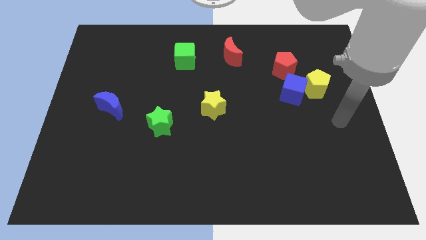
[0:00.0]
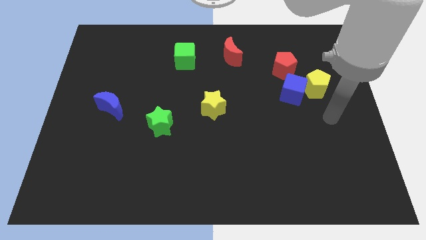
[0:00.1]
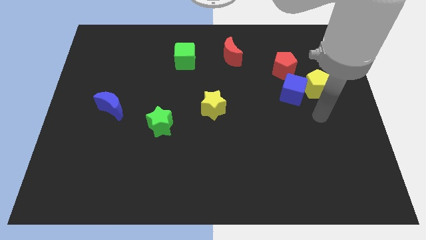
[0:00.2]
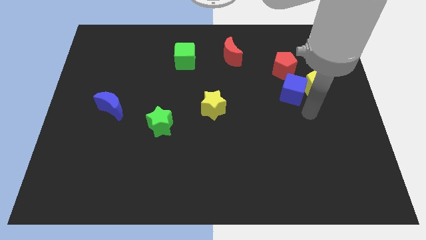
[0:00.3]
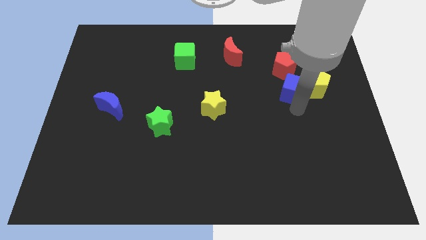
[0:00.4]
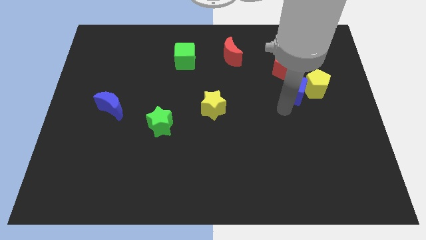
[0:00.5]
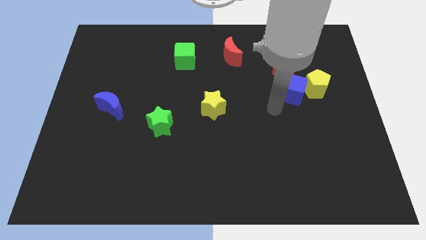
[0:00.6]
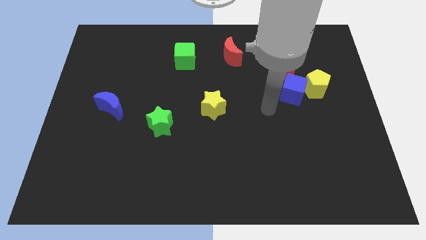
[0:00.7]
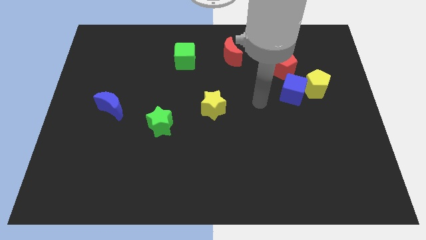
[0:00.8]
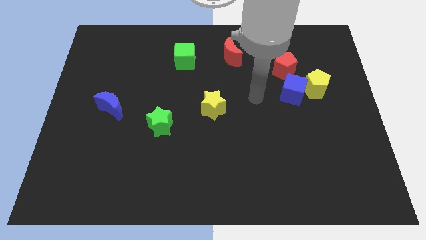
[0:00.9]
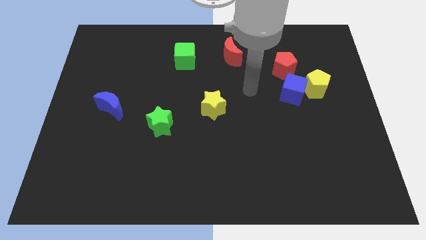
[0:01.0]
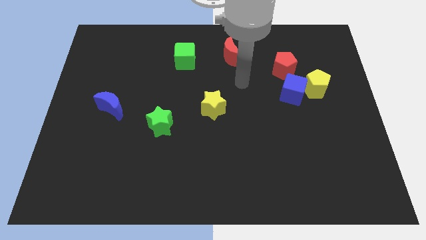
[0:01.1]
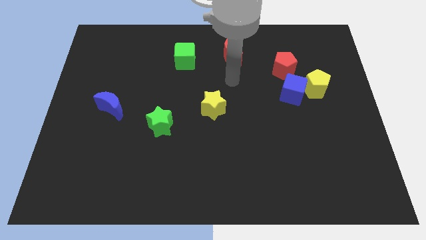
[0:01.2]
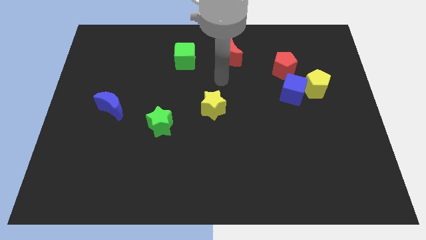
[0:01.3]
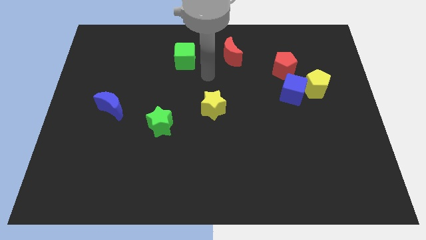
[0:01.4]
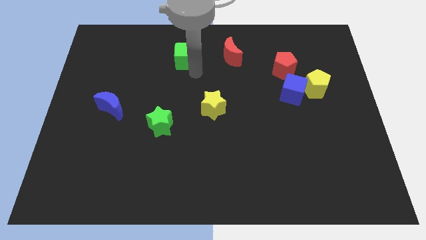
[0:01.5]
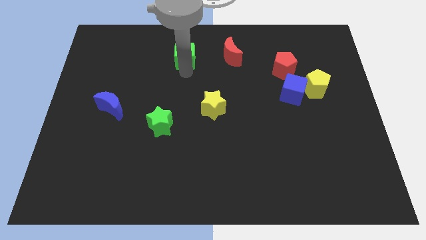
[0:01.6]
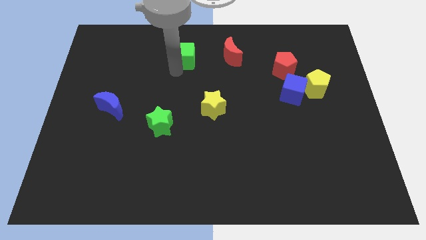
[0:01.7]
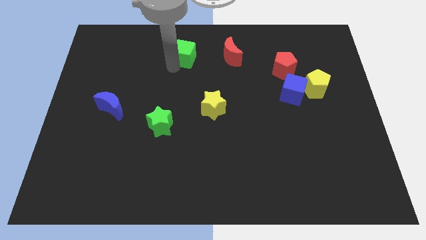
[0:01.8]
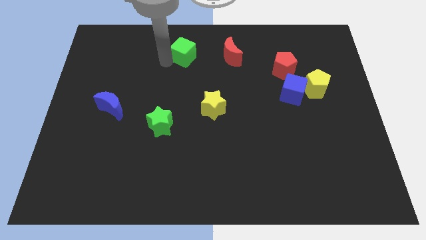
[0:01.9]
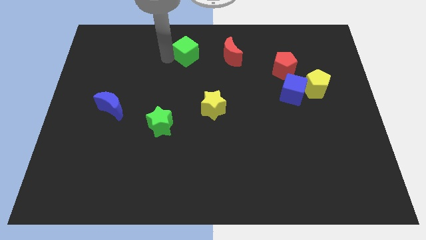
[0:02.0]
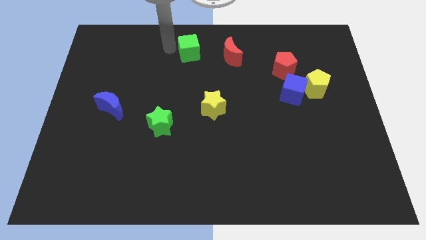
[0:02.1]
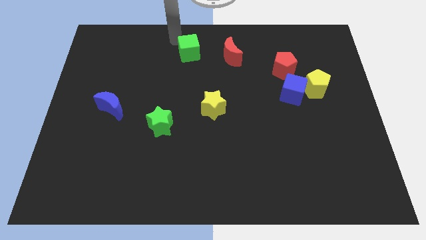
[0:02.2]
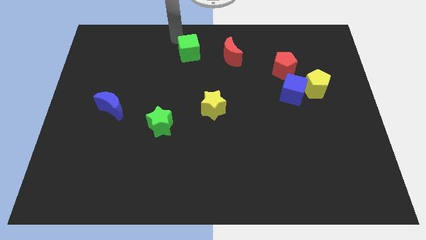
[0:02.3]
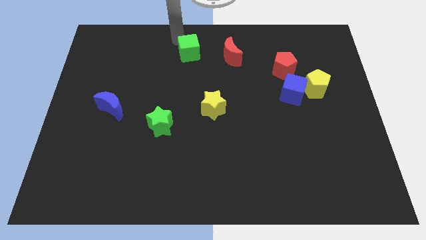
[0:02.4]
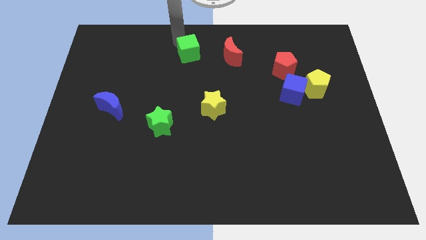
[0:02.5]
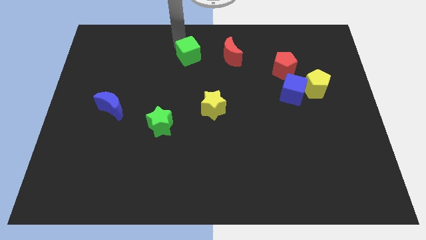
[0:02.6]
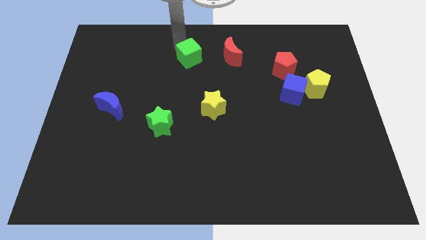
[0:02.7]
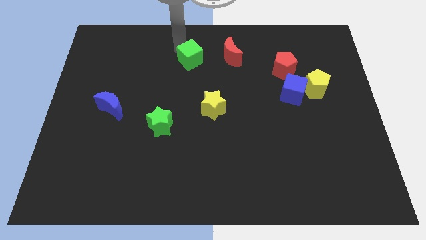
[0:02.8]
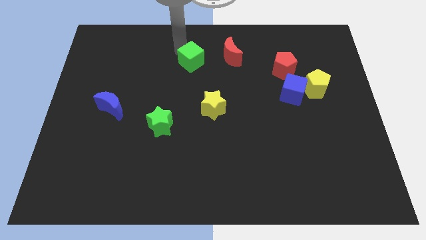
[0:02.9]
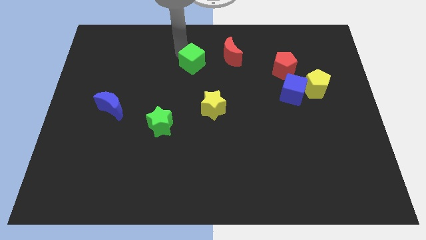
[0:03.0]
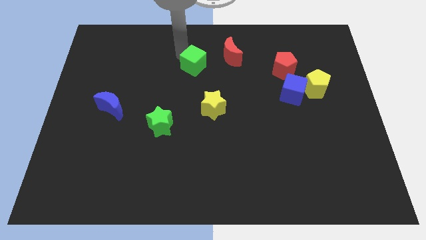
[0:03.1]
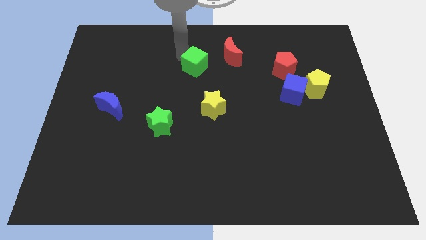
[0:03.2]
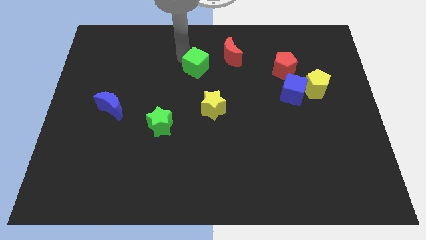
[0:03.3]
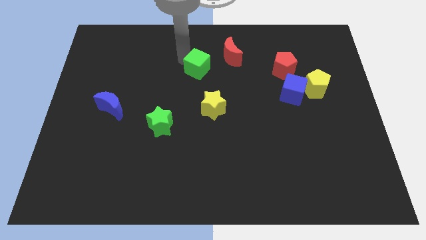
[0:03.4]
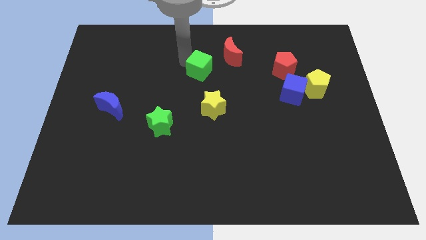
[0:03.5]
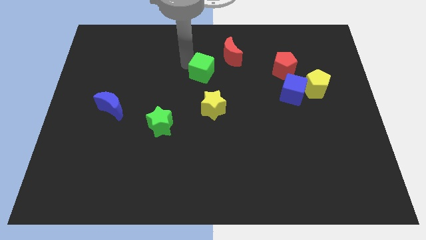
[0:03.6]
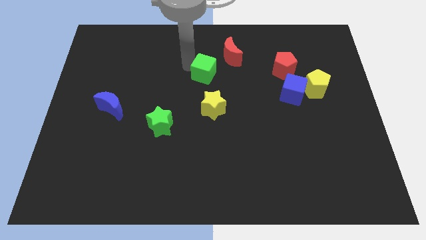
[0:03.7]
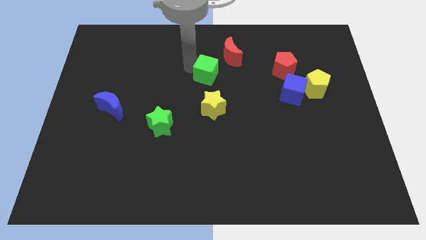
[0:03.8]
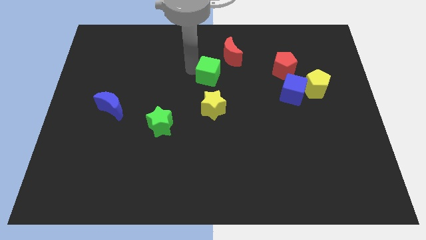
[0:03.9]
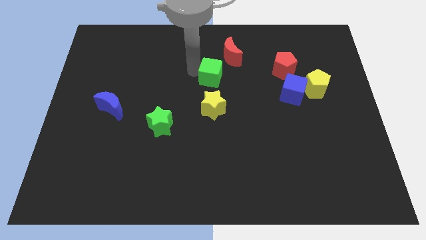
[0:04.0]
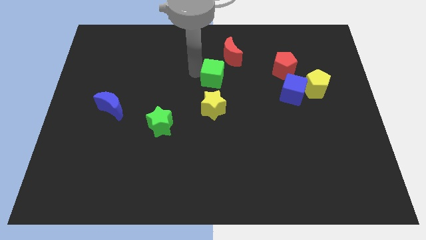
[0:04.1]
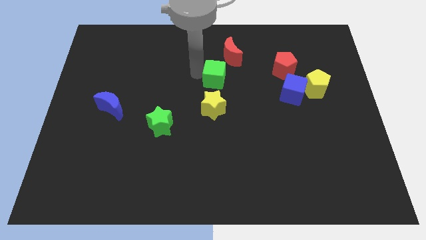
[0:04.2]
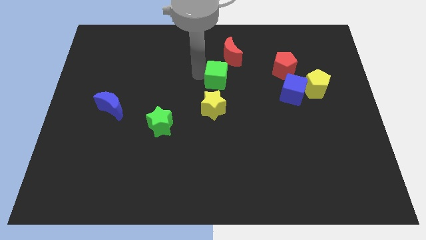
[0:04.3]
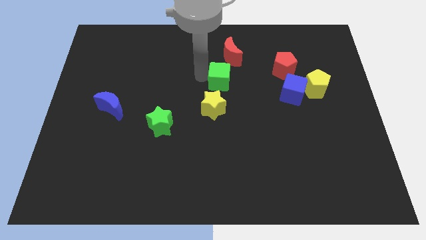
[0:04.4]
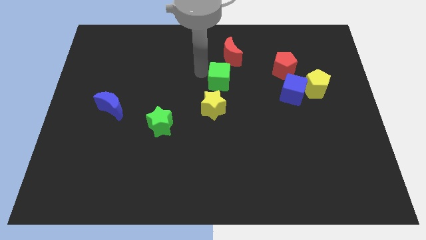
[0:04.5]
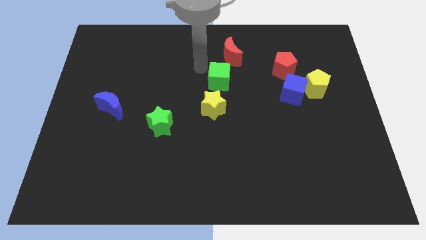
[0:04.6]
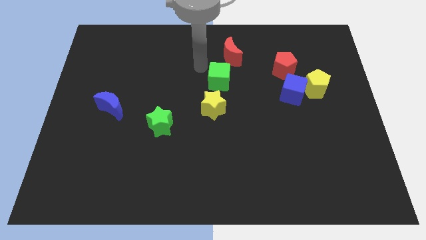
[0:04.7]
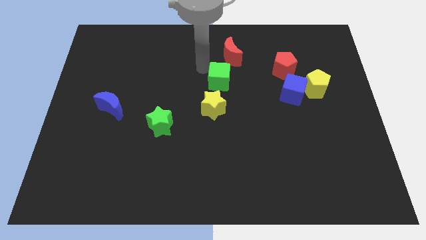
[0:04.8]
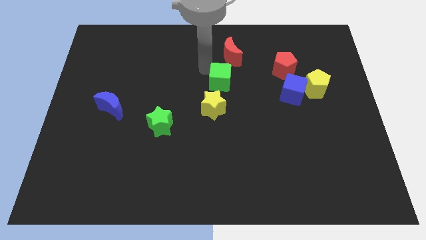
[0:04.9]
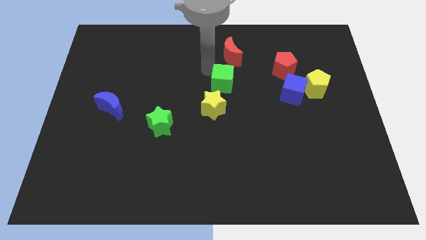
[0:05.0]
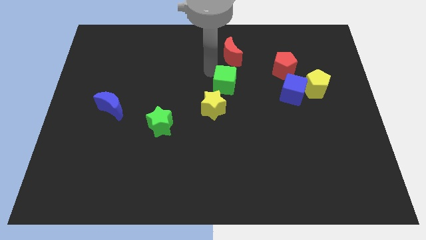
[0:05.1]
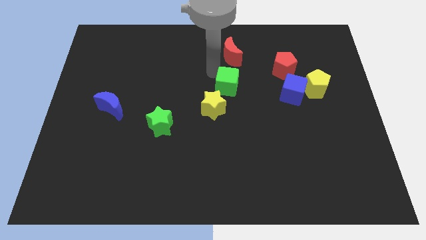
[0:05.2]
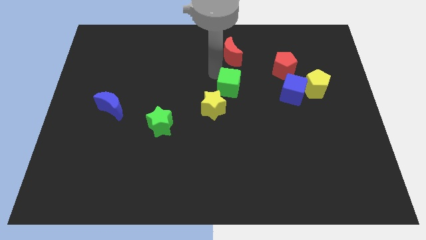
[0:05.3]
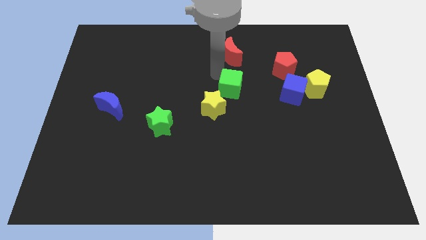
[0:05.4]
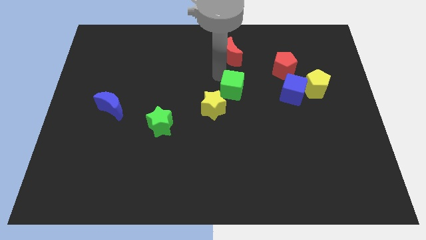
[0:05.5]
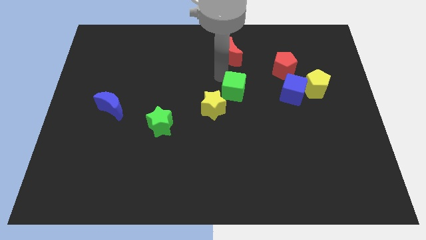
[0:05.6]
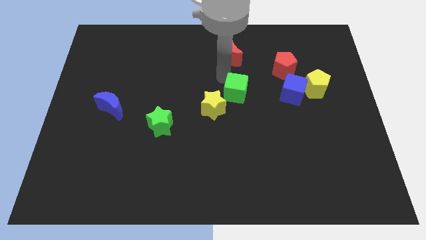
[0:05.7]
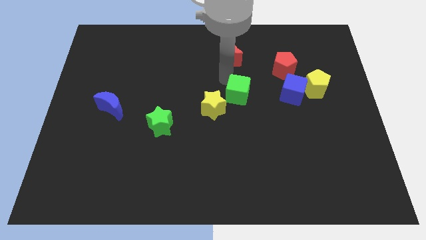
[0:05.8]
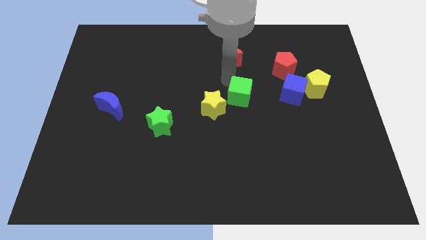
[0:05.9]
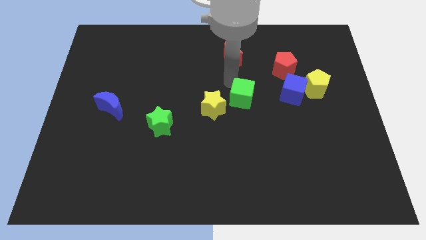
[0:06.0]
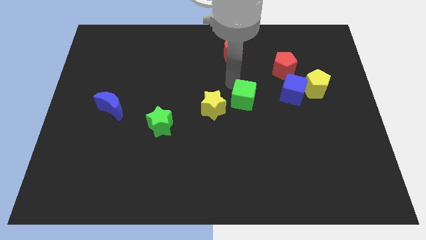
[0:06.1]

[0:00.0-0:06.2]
move the green cube diagonally down and right

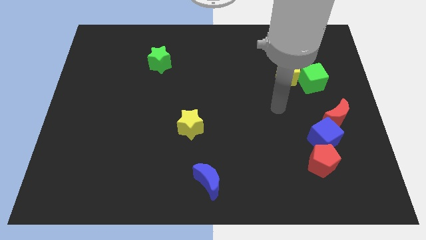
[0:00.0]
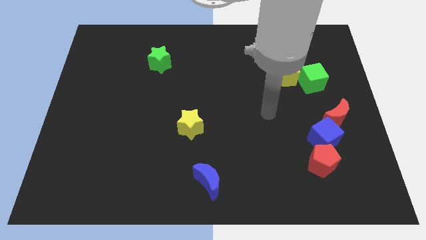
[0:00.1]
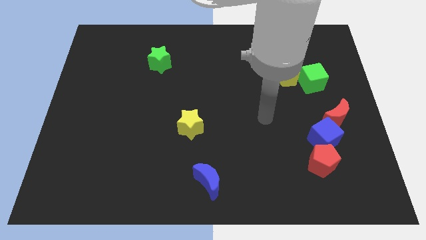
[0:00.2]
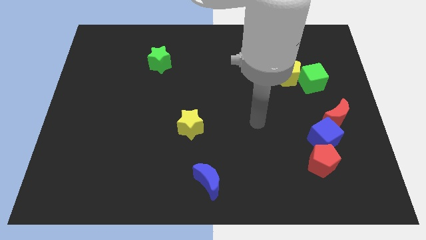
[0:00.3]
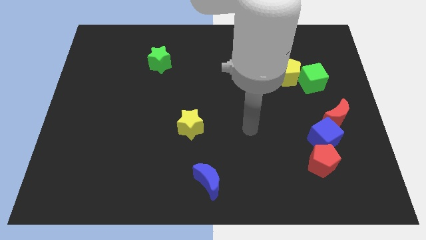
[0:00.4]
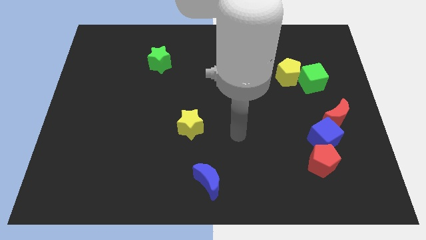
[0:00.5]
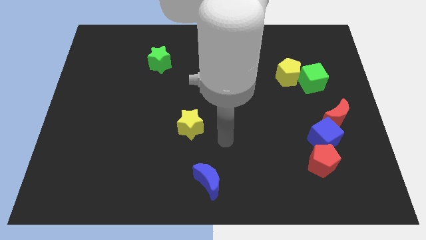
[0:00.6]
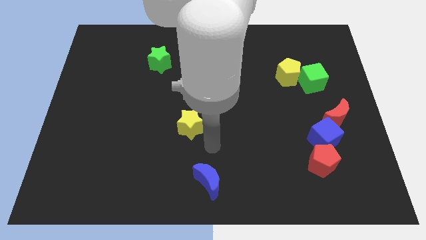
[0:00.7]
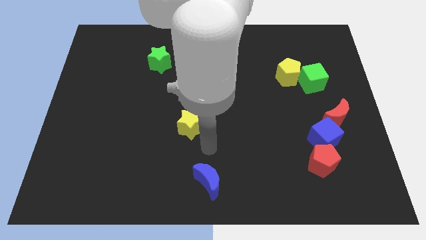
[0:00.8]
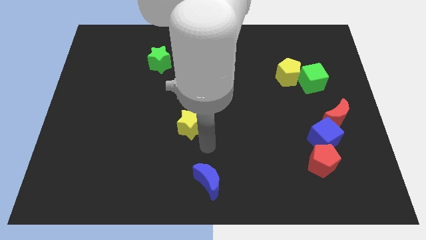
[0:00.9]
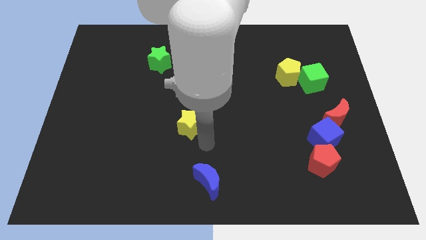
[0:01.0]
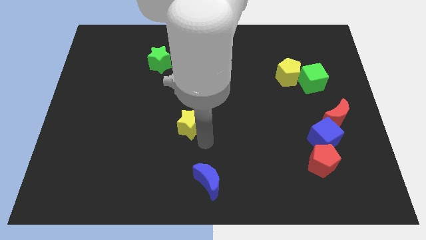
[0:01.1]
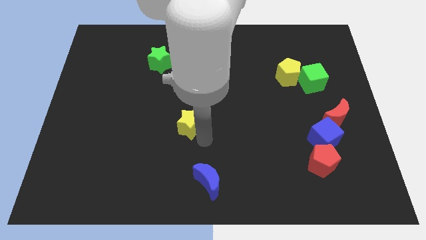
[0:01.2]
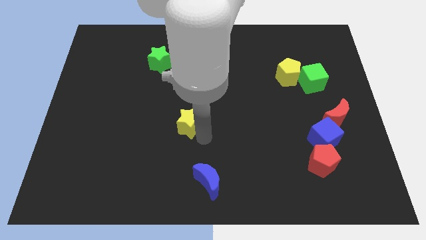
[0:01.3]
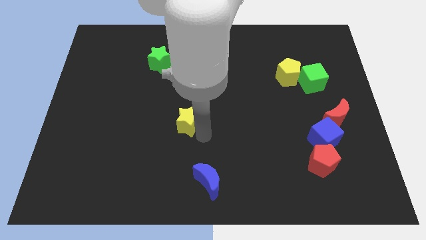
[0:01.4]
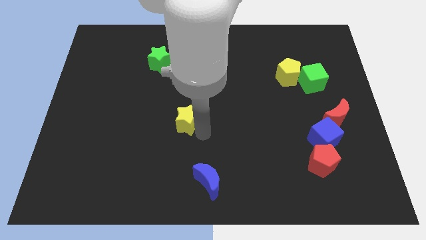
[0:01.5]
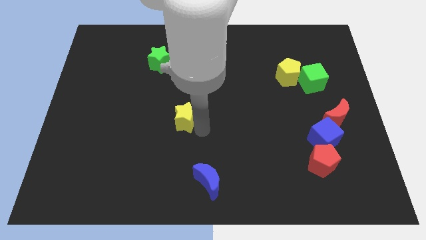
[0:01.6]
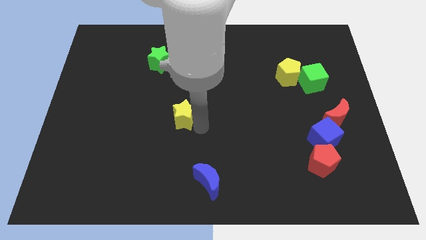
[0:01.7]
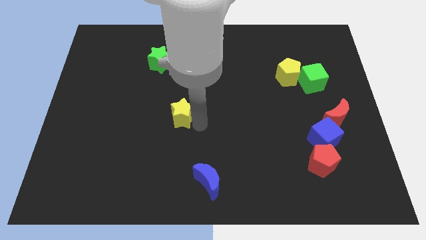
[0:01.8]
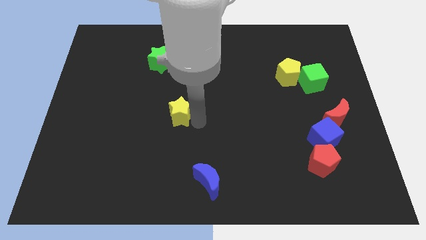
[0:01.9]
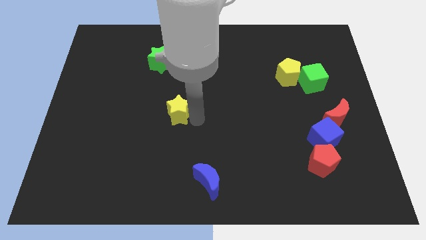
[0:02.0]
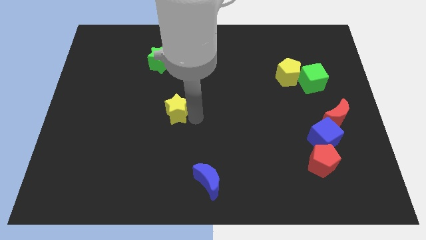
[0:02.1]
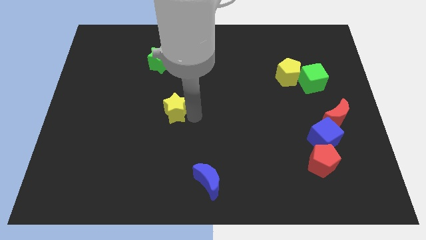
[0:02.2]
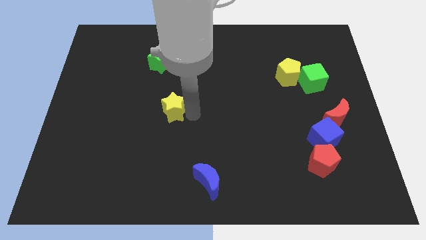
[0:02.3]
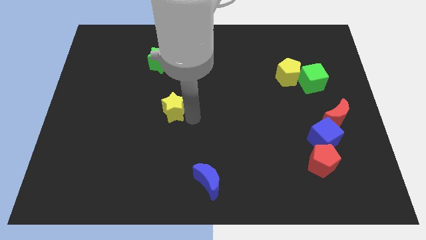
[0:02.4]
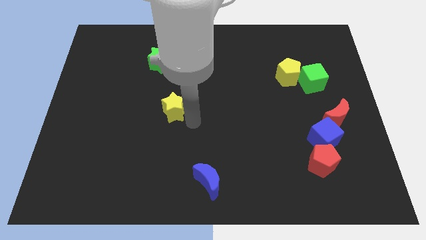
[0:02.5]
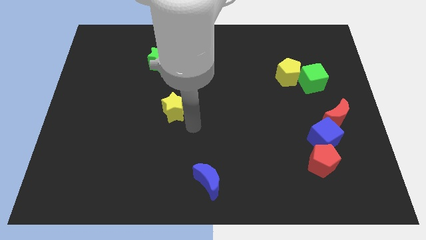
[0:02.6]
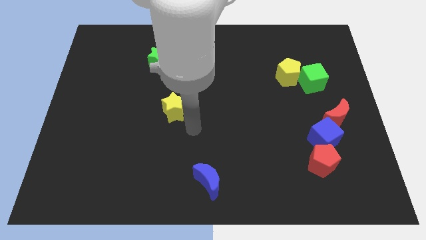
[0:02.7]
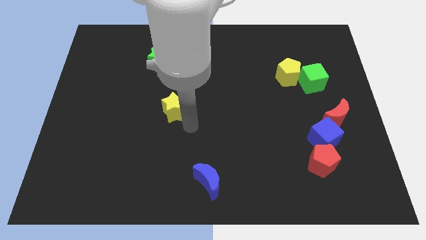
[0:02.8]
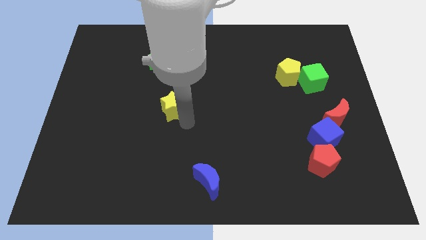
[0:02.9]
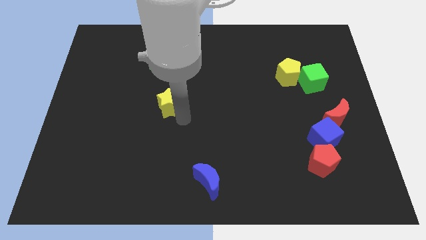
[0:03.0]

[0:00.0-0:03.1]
slightly slide the yellow star diagonally upwards and to the left
